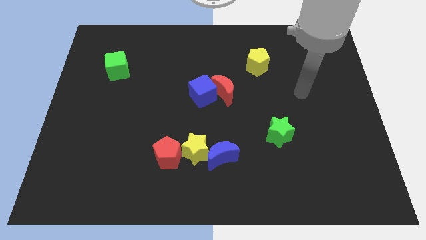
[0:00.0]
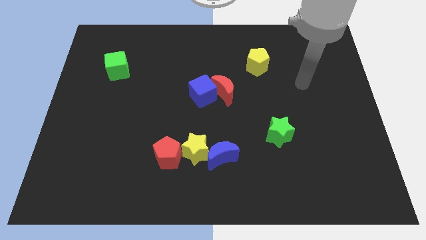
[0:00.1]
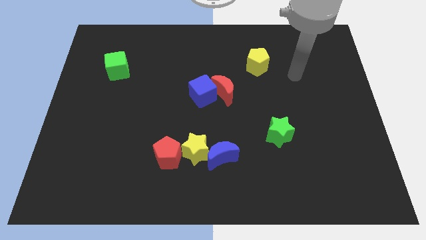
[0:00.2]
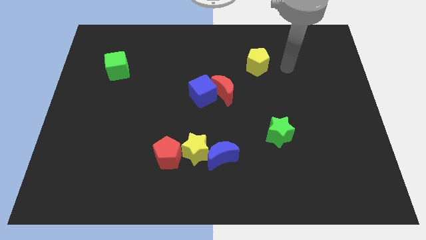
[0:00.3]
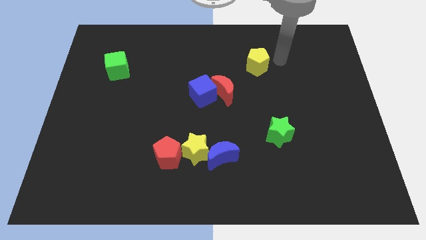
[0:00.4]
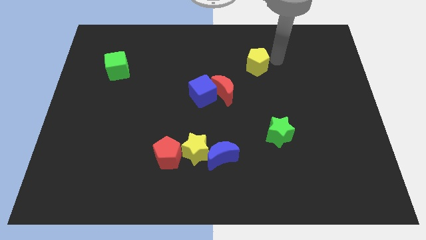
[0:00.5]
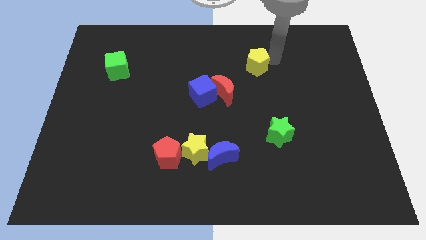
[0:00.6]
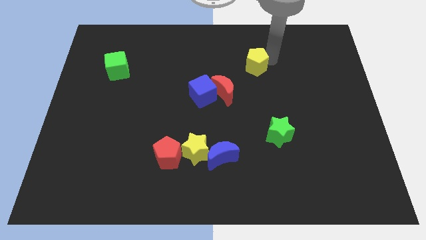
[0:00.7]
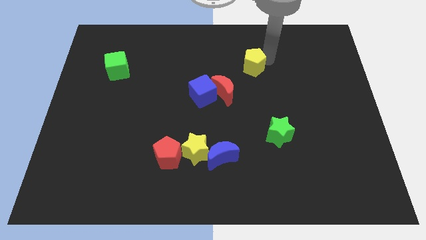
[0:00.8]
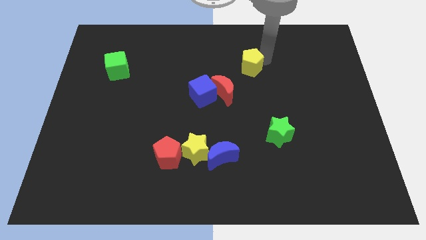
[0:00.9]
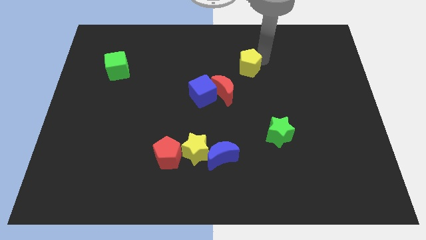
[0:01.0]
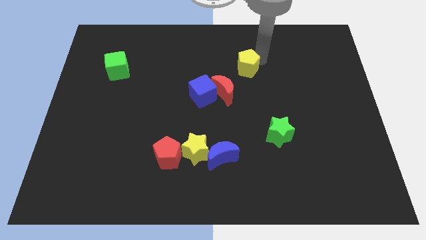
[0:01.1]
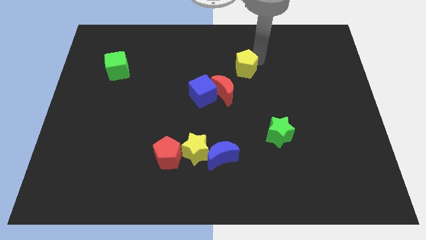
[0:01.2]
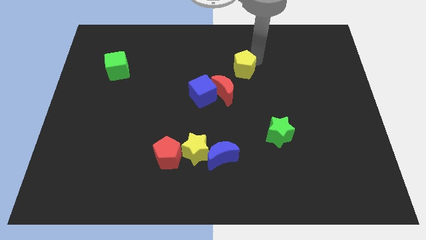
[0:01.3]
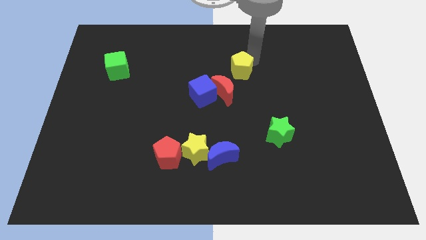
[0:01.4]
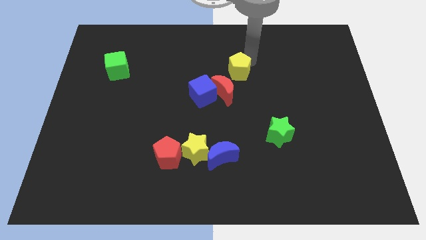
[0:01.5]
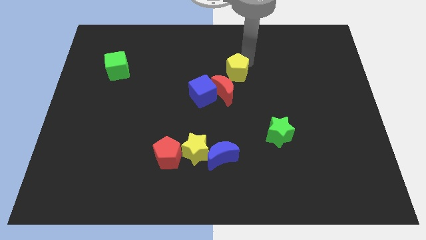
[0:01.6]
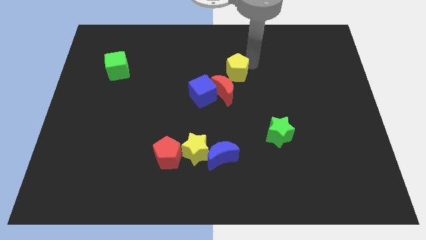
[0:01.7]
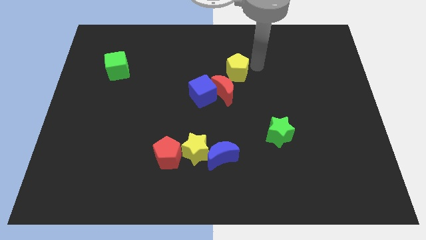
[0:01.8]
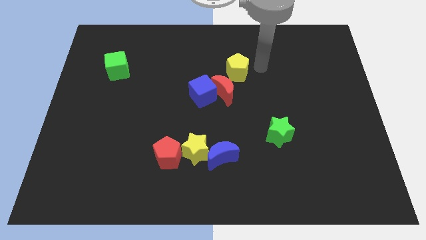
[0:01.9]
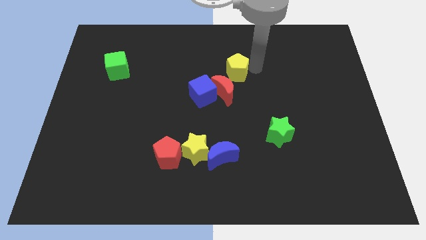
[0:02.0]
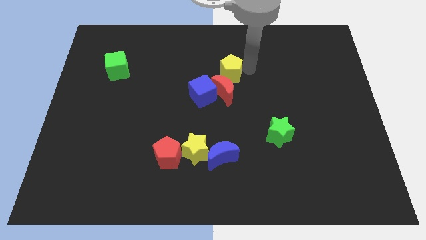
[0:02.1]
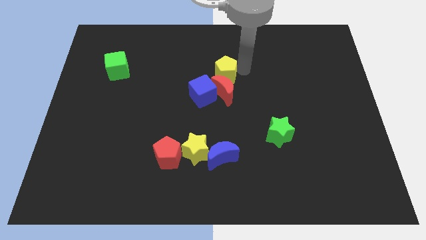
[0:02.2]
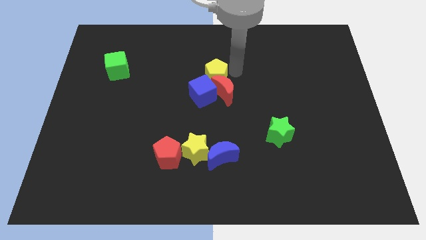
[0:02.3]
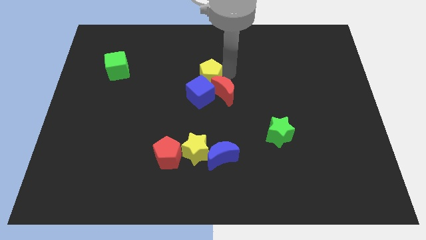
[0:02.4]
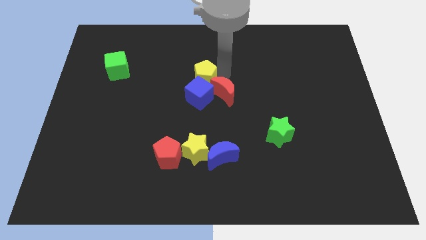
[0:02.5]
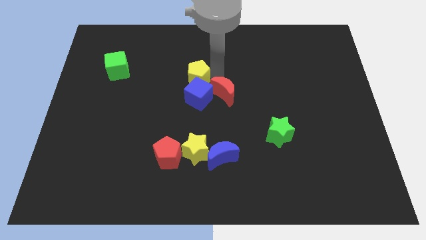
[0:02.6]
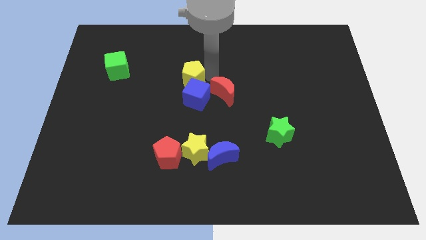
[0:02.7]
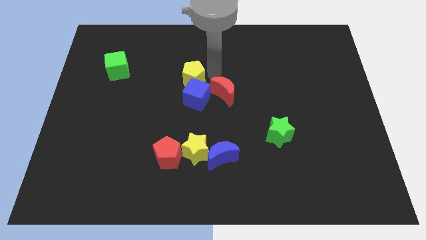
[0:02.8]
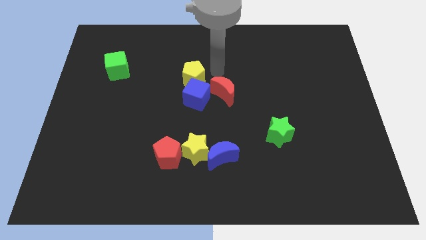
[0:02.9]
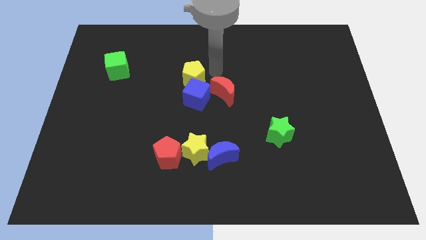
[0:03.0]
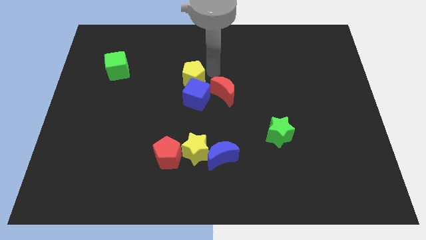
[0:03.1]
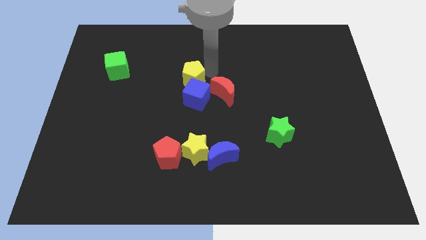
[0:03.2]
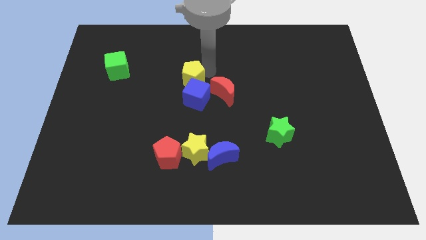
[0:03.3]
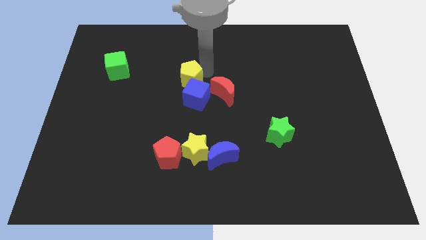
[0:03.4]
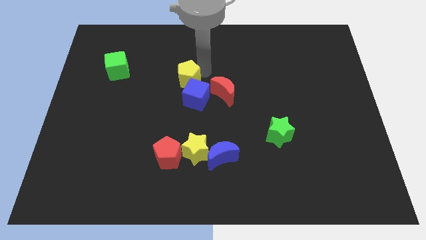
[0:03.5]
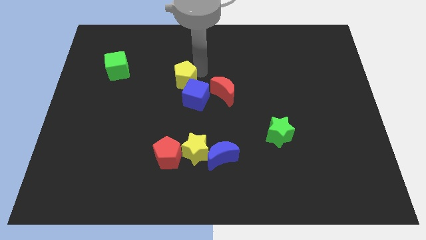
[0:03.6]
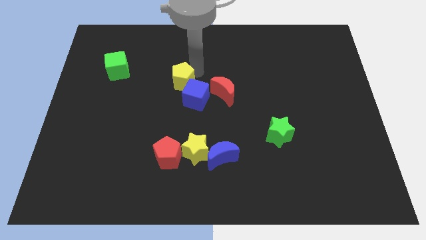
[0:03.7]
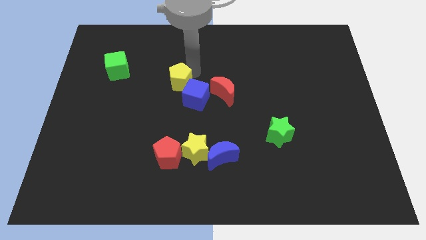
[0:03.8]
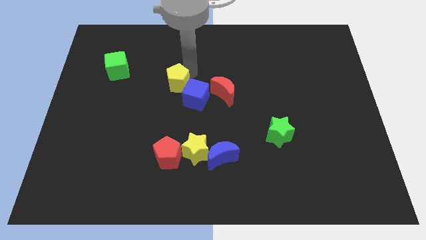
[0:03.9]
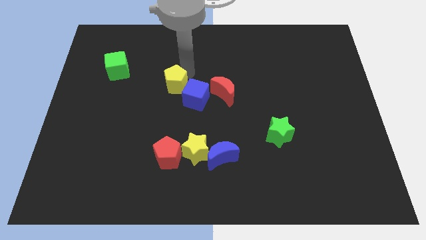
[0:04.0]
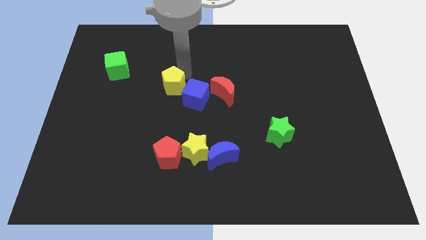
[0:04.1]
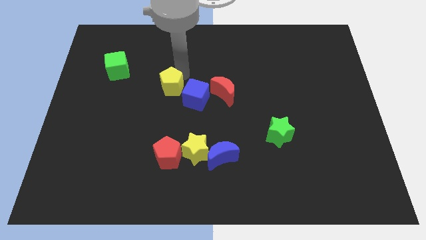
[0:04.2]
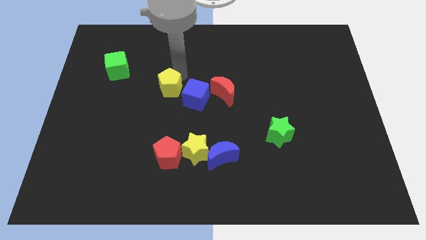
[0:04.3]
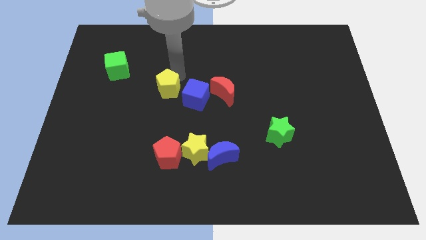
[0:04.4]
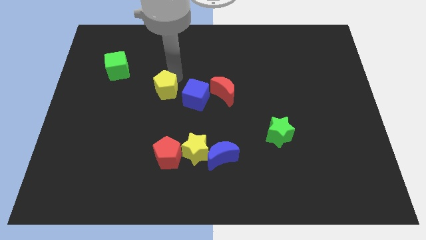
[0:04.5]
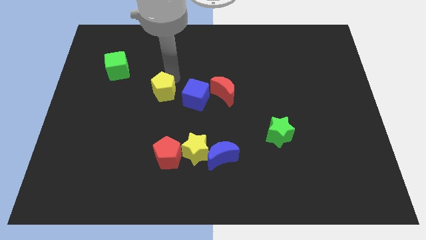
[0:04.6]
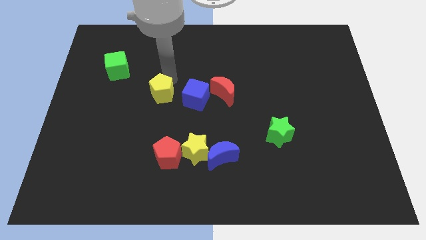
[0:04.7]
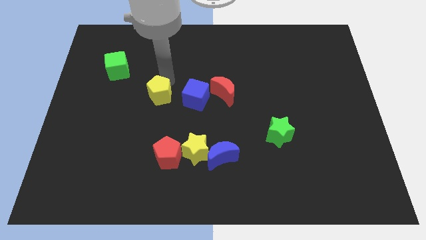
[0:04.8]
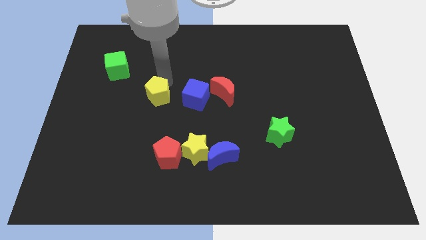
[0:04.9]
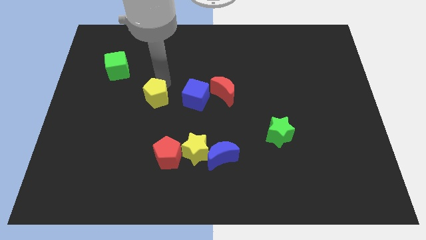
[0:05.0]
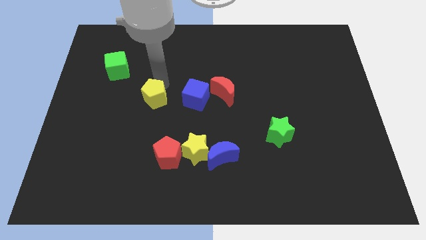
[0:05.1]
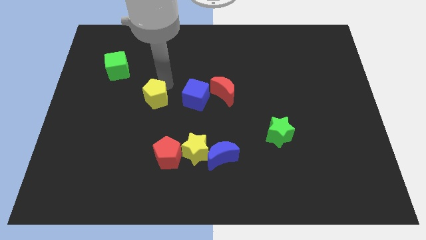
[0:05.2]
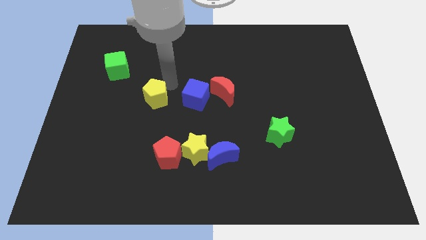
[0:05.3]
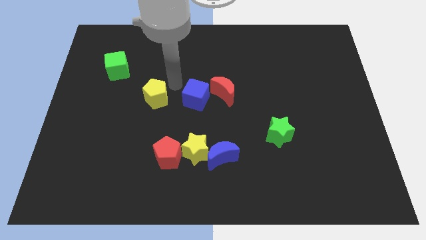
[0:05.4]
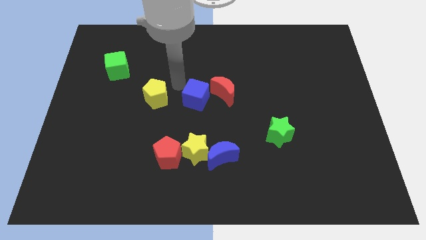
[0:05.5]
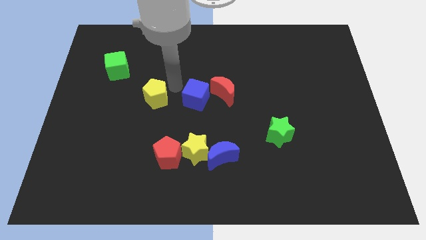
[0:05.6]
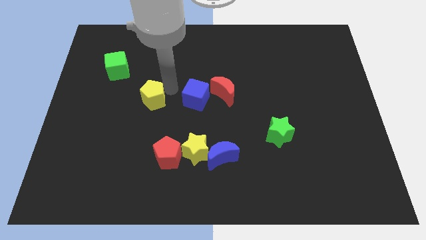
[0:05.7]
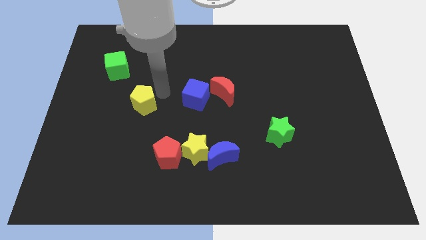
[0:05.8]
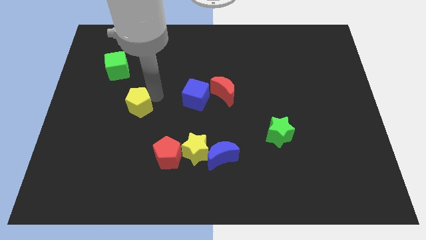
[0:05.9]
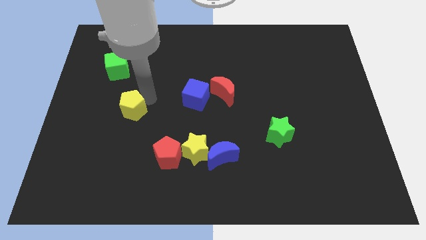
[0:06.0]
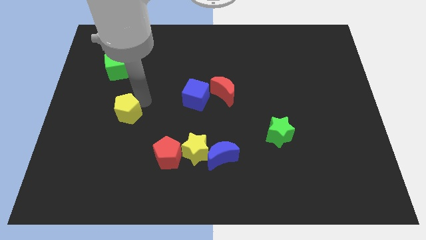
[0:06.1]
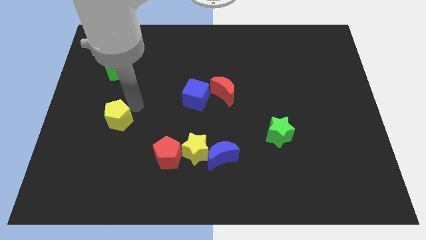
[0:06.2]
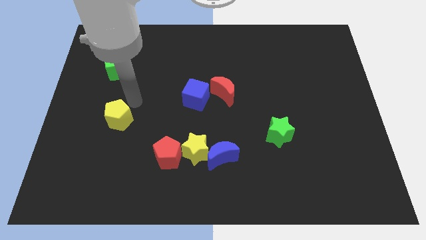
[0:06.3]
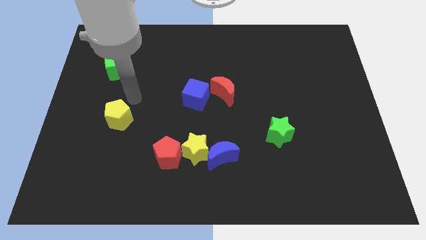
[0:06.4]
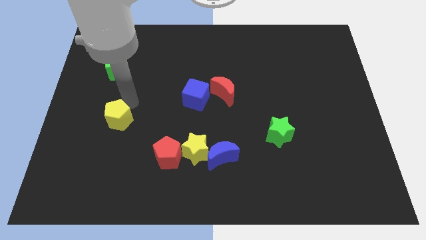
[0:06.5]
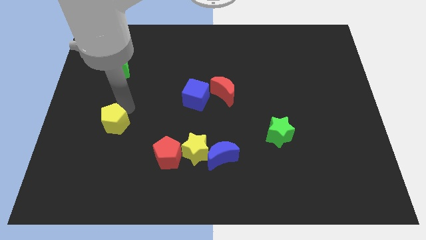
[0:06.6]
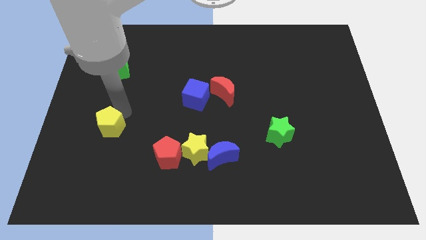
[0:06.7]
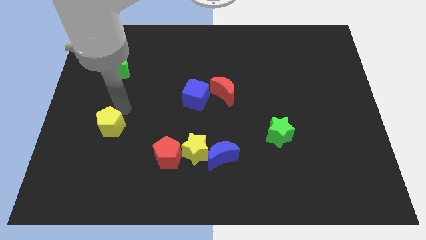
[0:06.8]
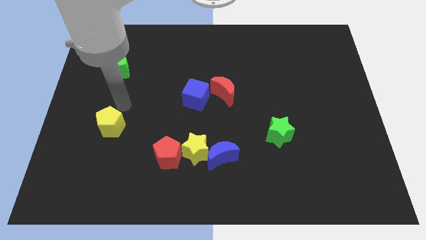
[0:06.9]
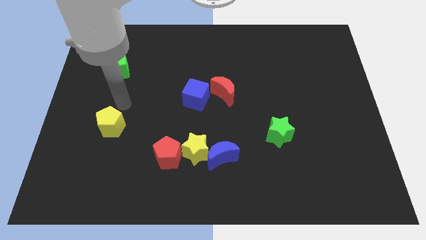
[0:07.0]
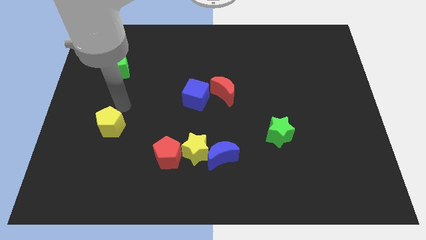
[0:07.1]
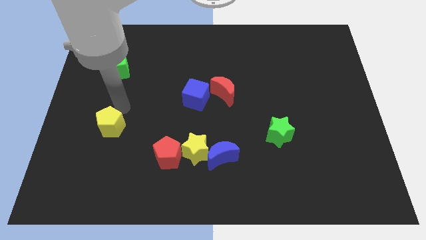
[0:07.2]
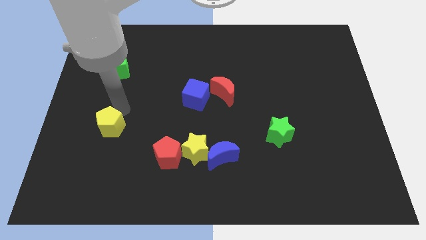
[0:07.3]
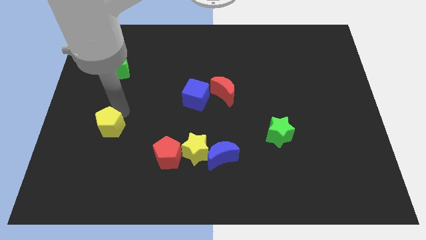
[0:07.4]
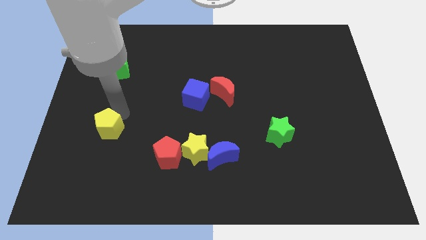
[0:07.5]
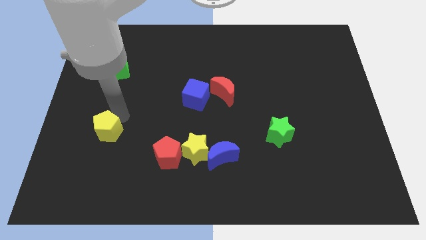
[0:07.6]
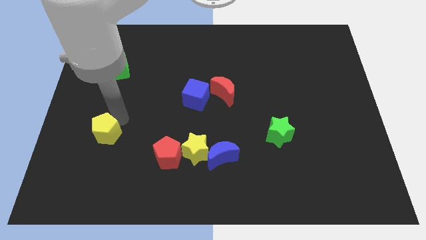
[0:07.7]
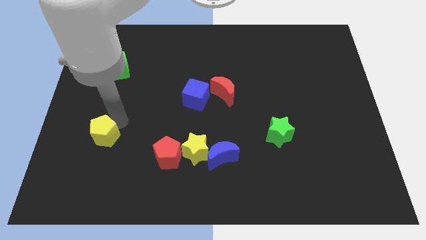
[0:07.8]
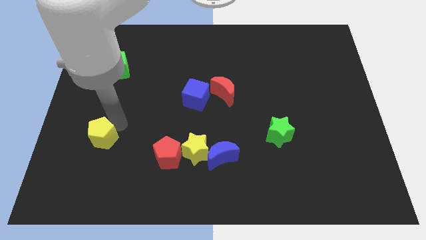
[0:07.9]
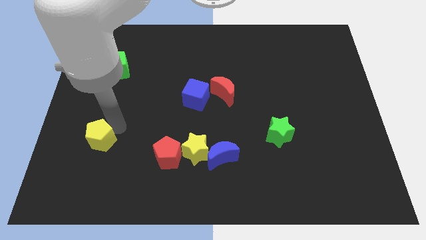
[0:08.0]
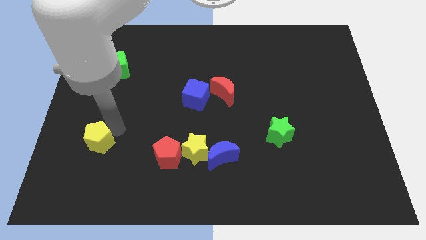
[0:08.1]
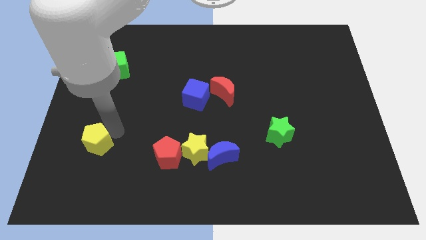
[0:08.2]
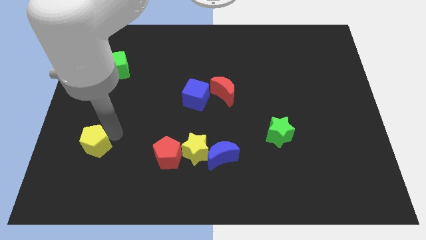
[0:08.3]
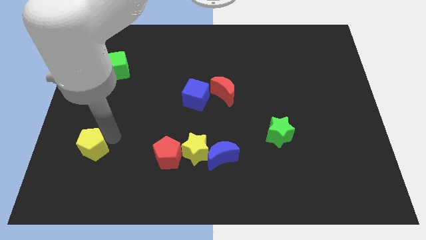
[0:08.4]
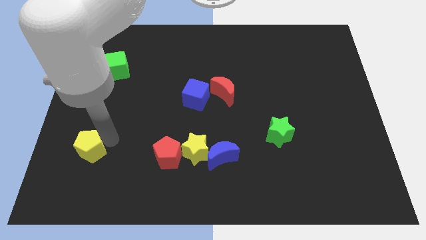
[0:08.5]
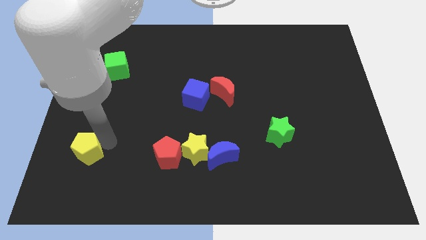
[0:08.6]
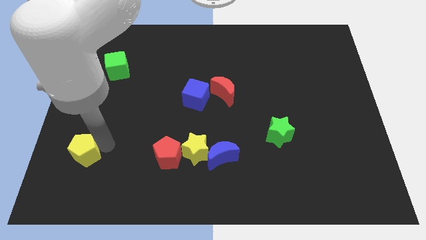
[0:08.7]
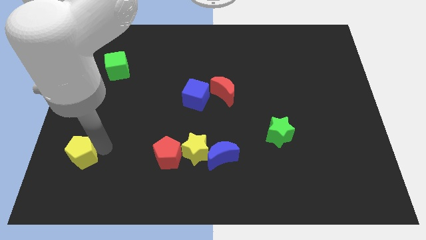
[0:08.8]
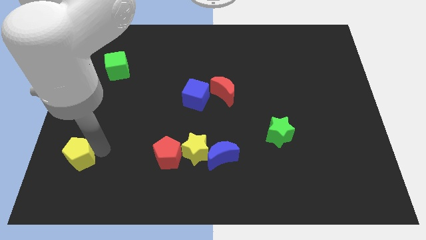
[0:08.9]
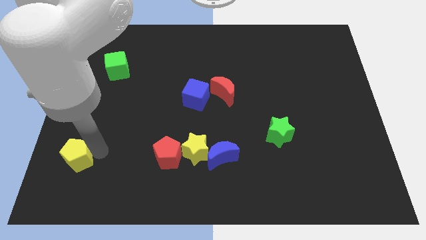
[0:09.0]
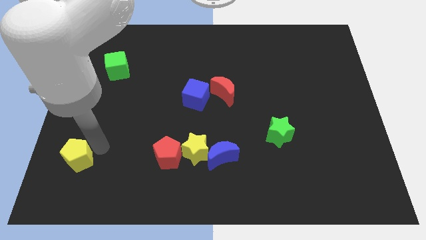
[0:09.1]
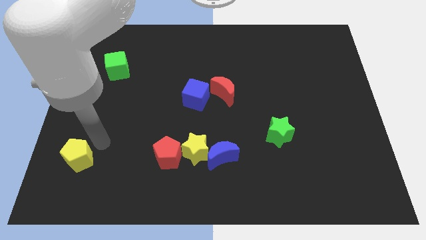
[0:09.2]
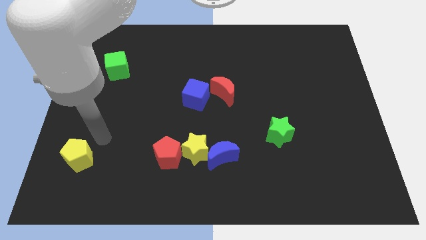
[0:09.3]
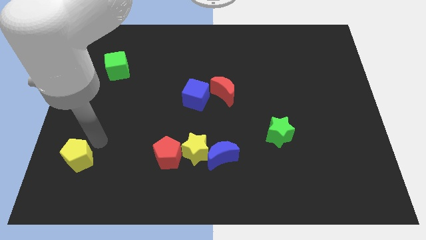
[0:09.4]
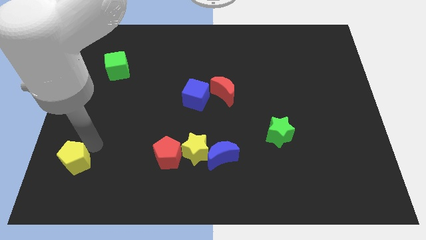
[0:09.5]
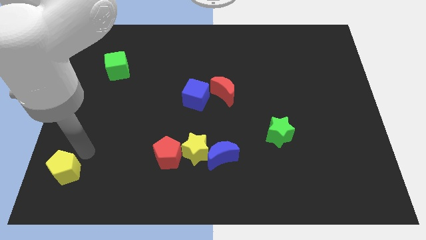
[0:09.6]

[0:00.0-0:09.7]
push the yellow pentagon to the bottom left corner
